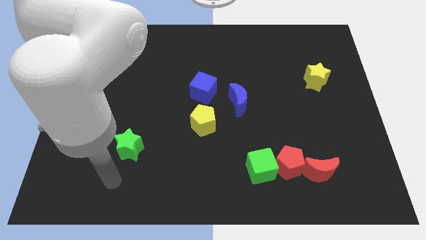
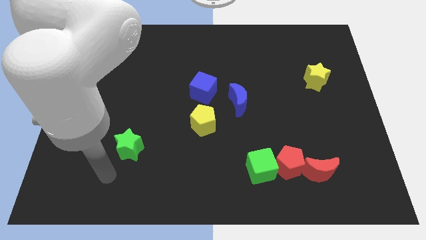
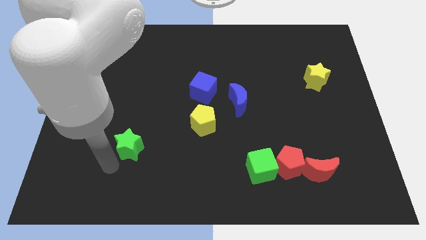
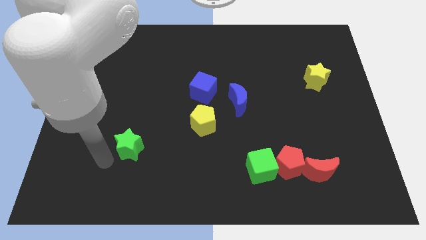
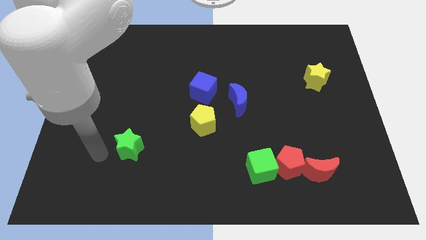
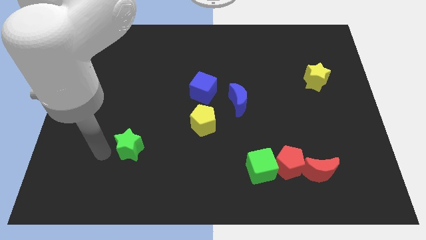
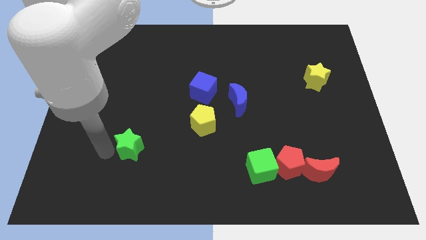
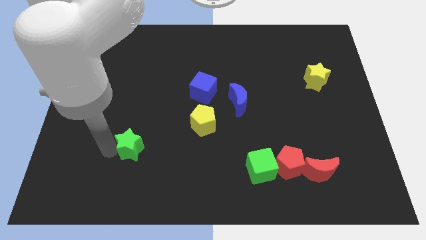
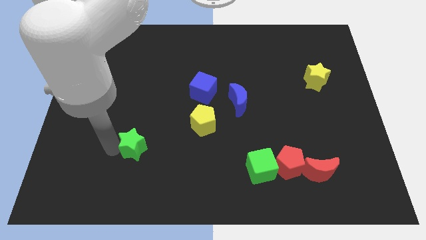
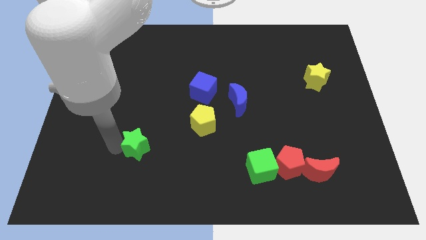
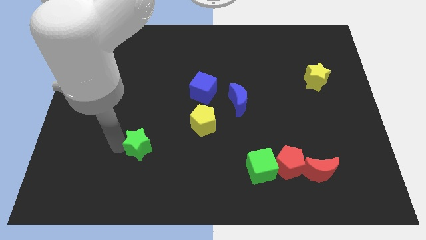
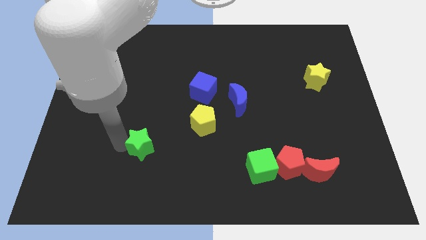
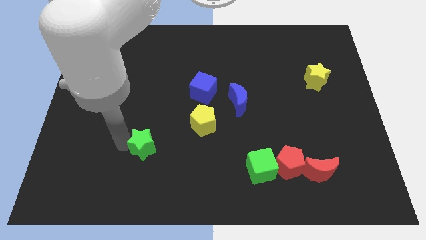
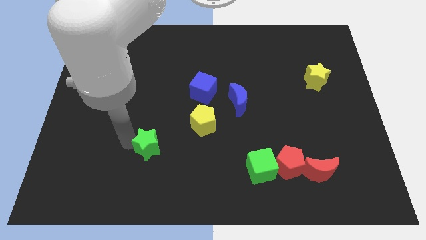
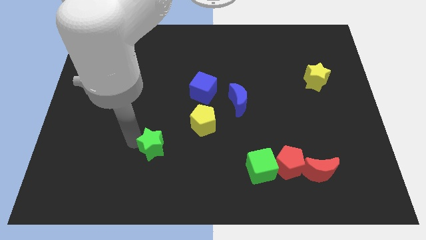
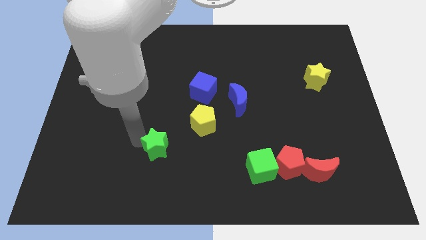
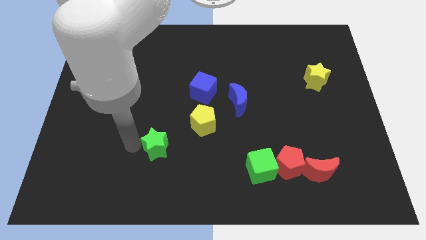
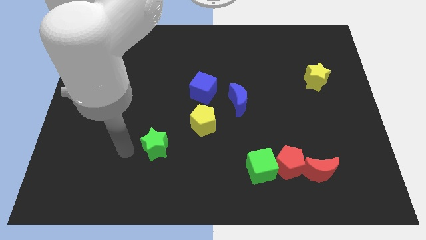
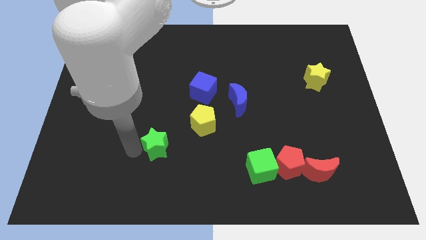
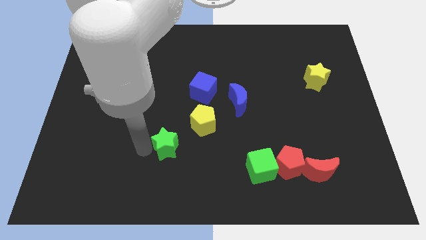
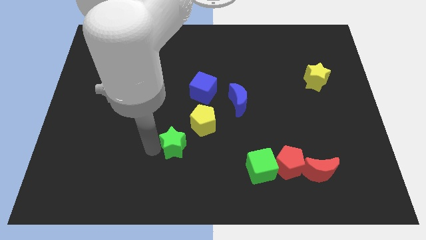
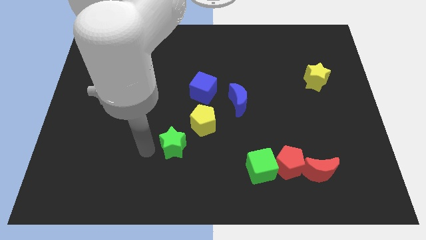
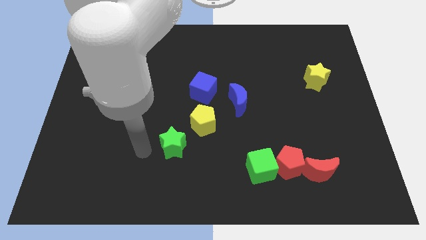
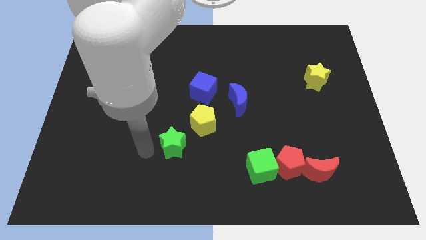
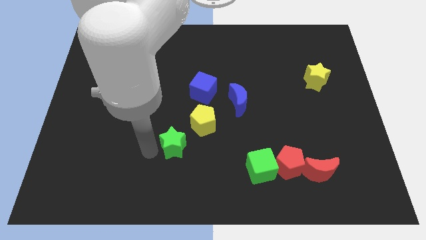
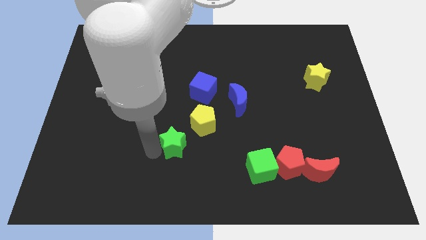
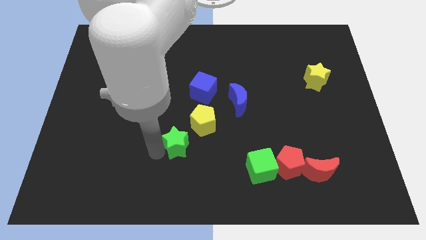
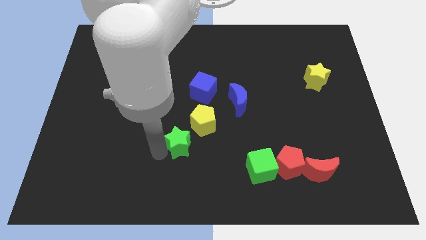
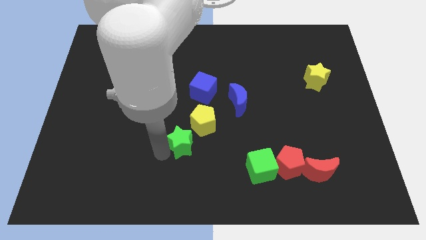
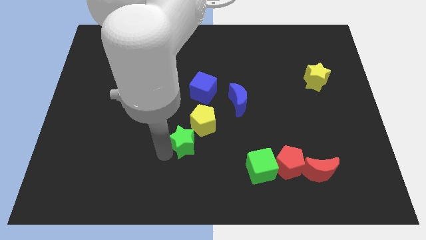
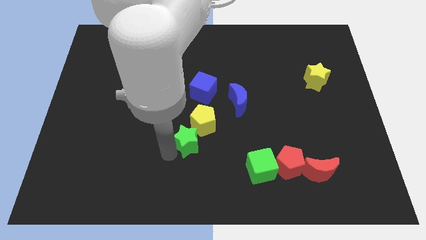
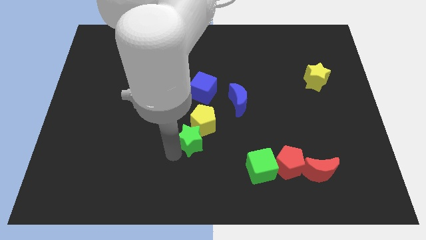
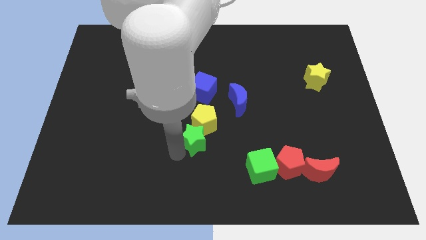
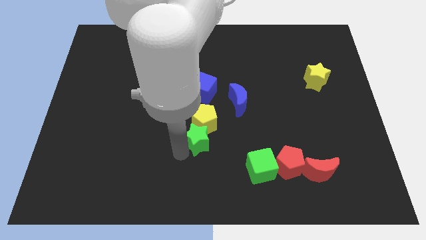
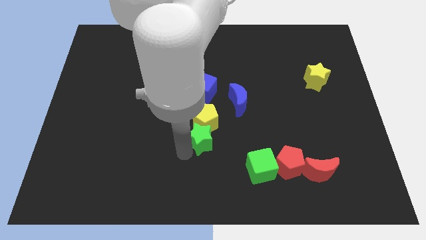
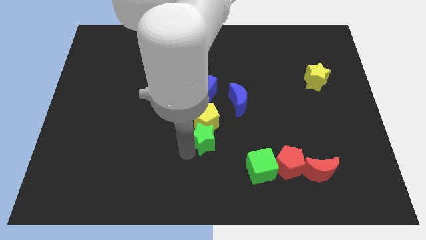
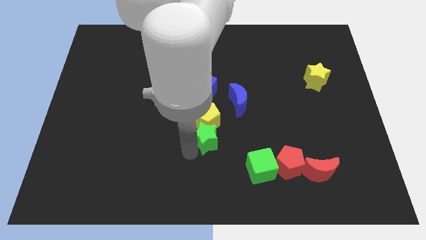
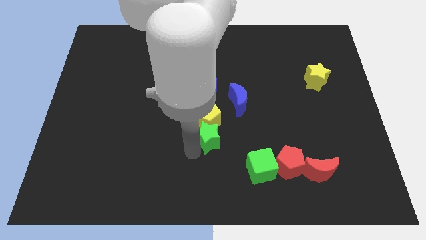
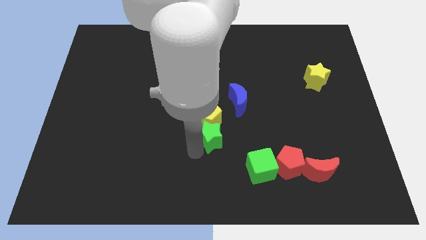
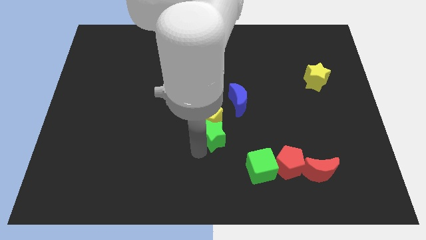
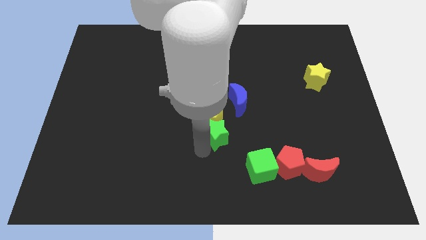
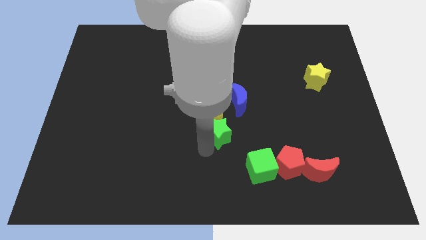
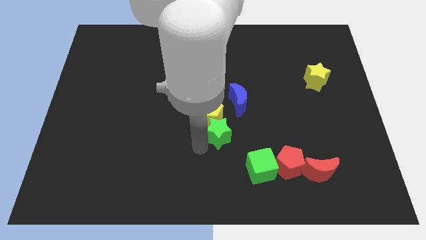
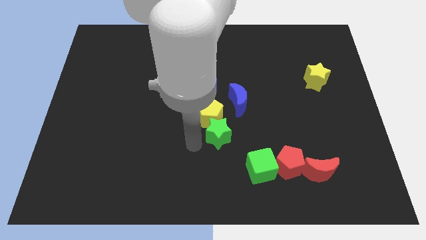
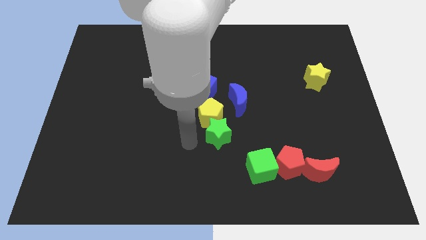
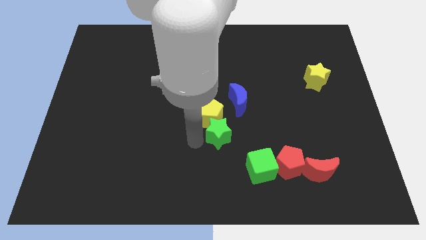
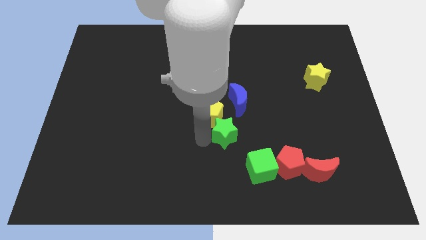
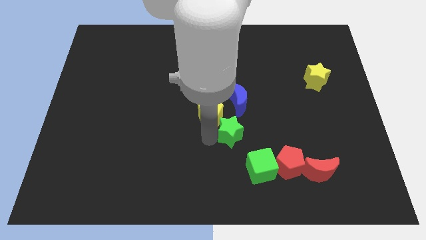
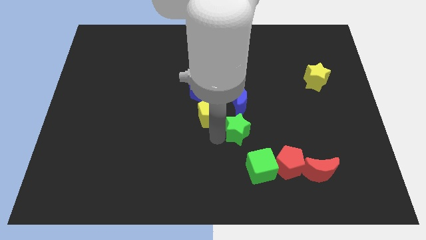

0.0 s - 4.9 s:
move the green star above the green cube

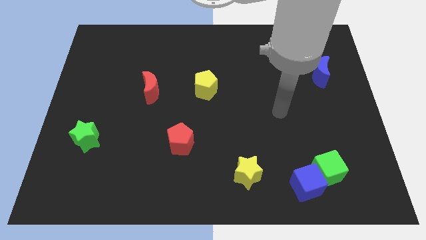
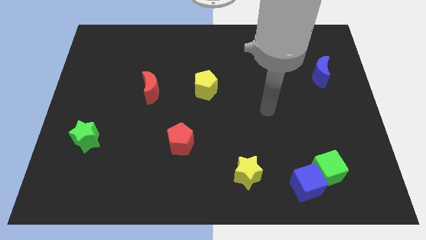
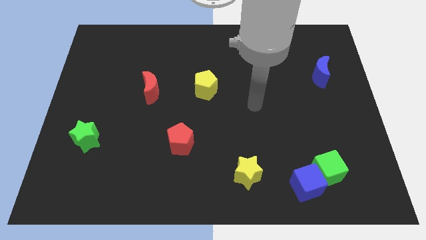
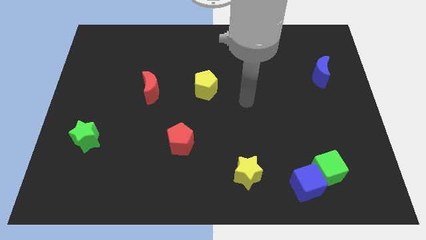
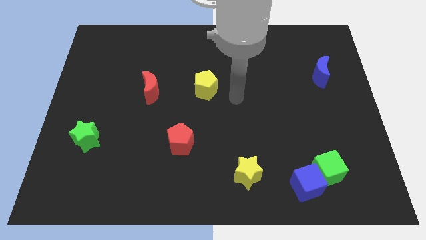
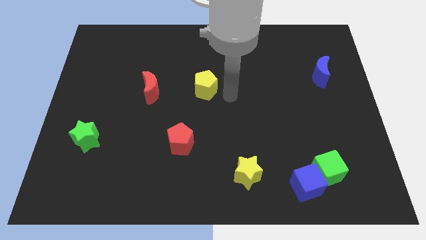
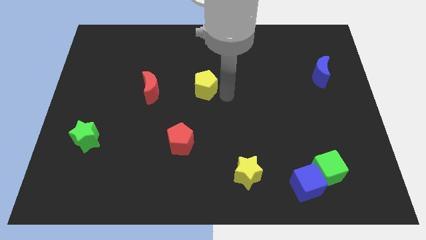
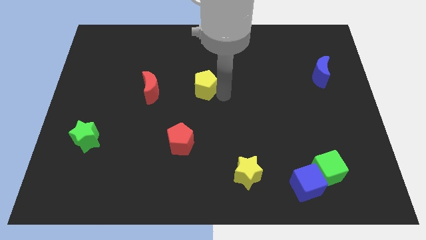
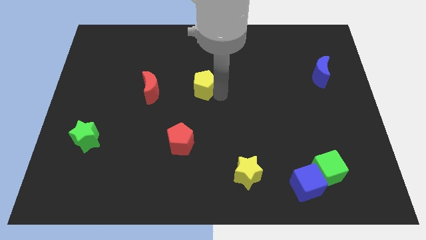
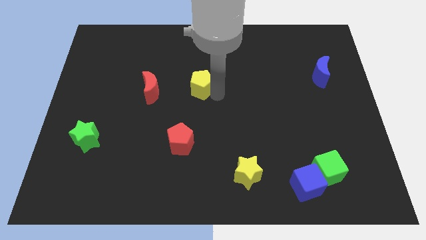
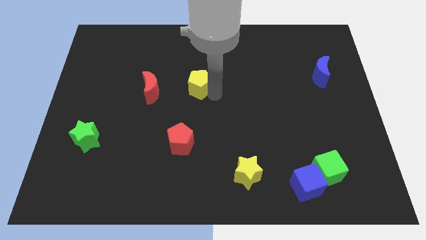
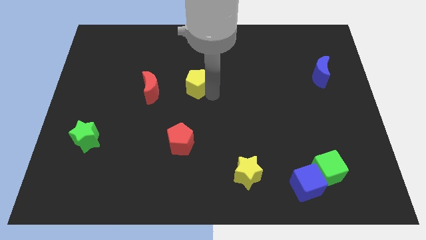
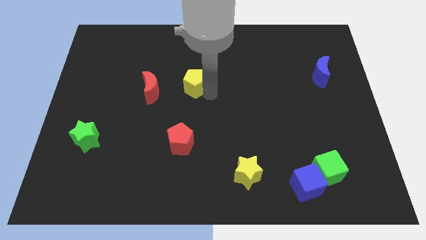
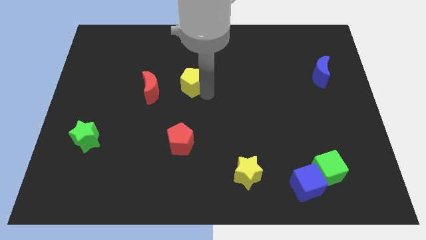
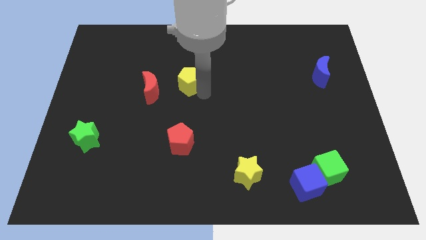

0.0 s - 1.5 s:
move the yellow pentagon diagonally up and to the right of the red moon

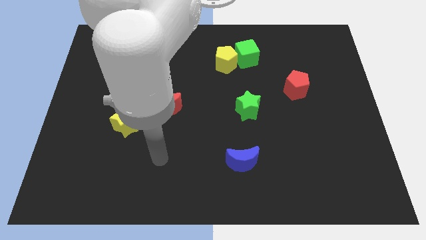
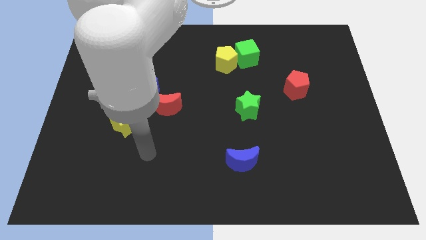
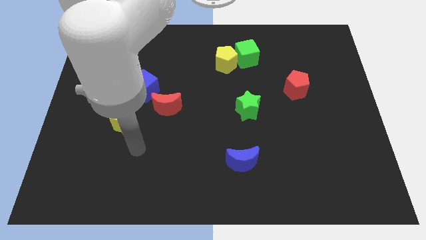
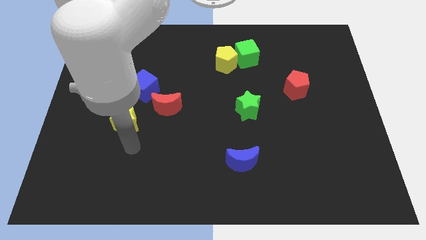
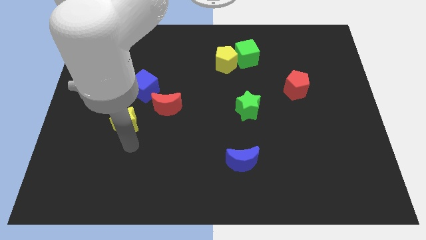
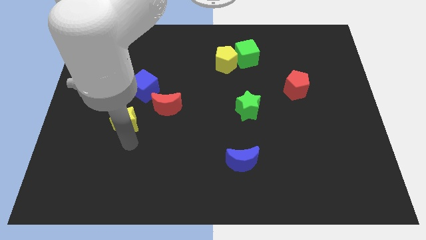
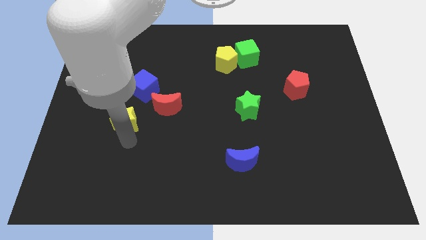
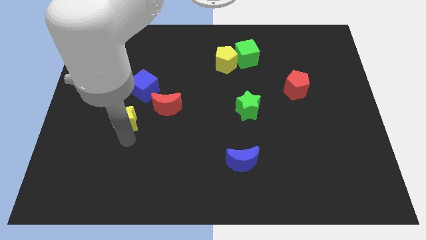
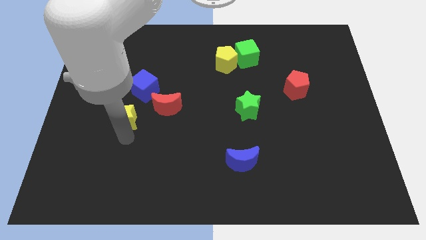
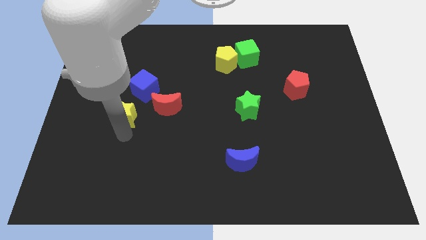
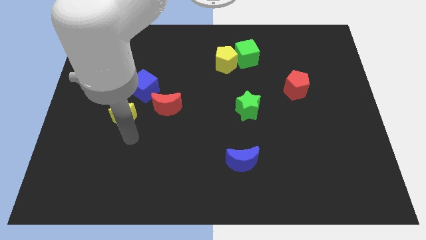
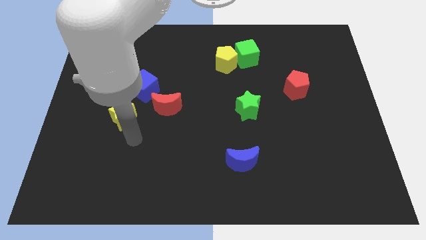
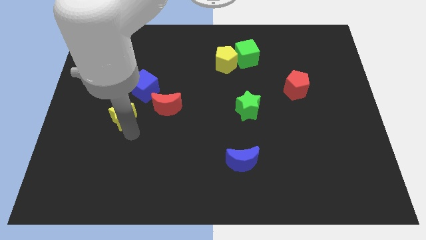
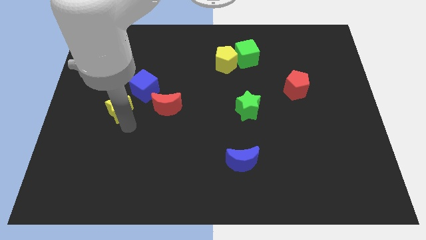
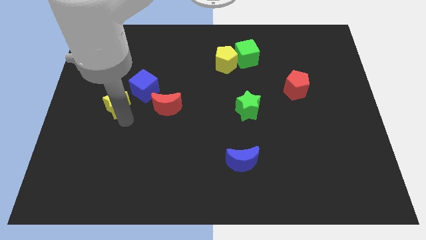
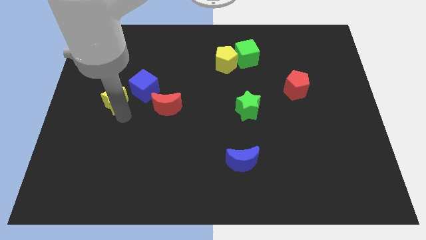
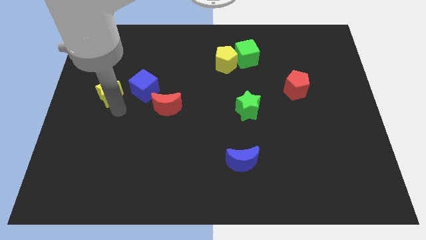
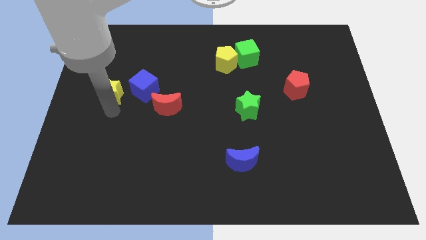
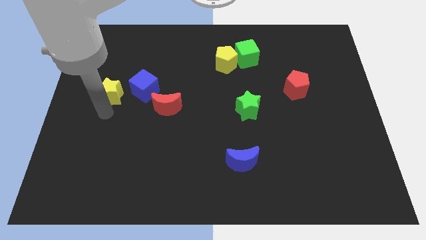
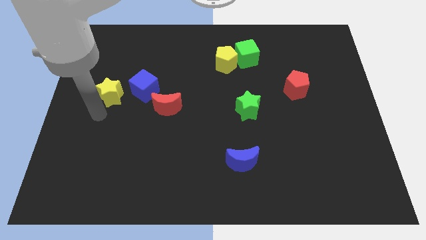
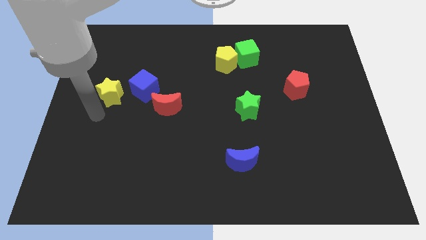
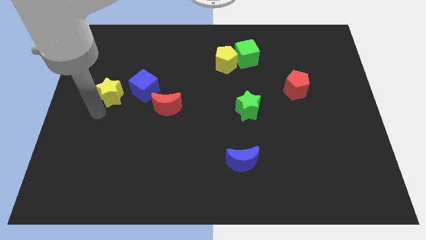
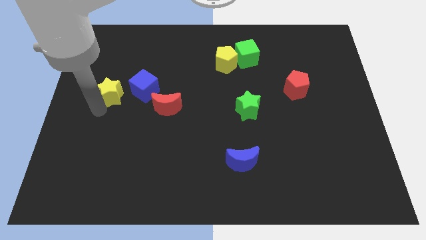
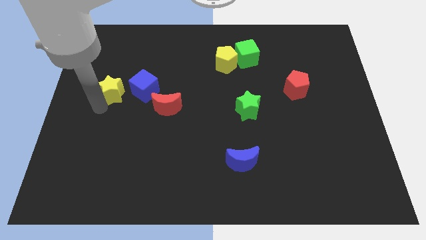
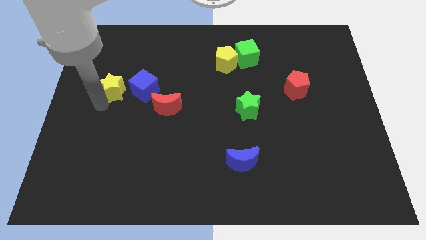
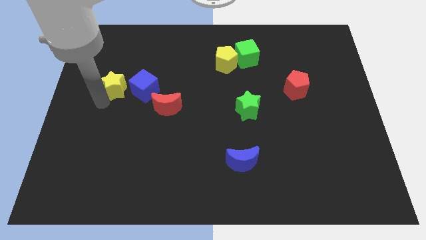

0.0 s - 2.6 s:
put the yellow star to the top left of the blue cube
